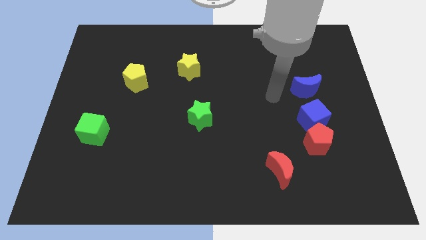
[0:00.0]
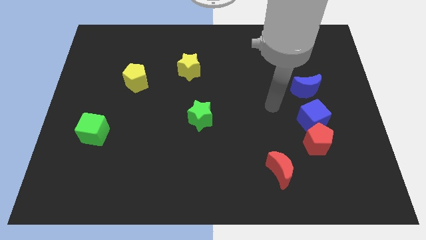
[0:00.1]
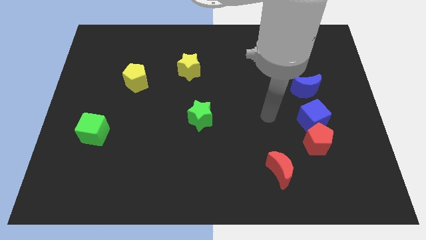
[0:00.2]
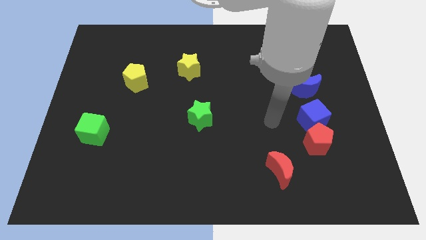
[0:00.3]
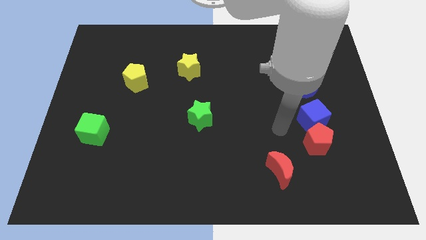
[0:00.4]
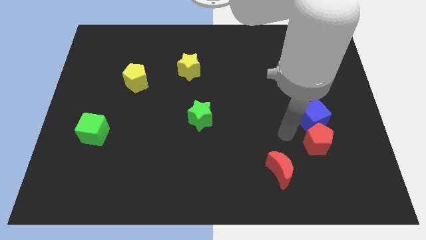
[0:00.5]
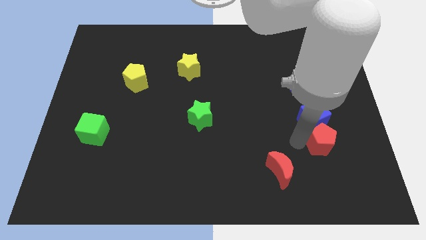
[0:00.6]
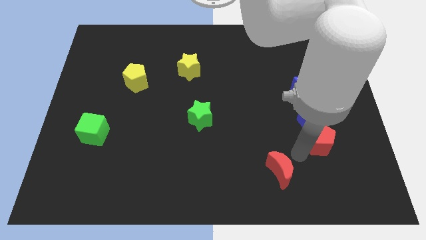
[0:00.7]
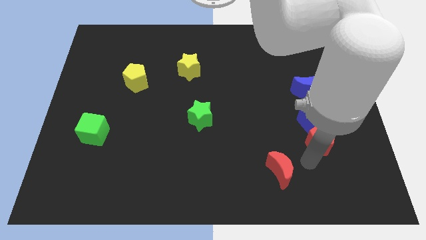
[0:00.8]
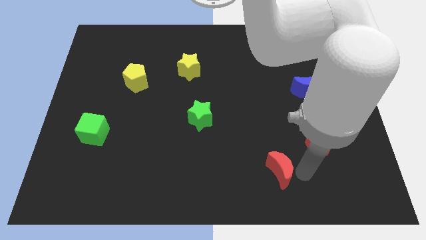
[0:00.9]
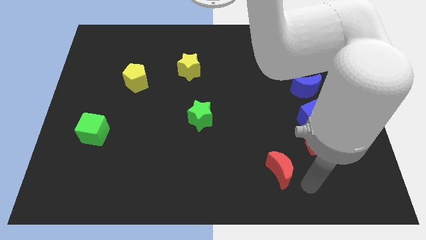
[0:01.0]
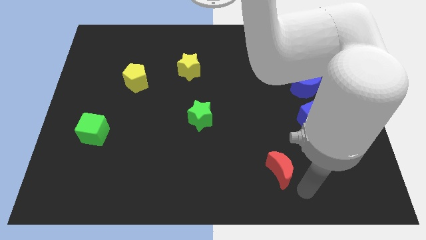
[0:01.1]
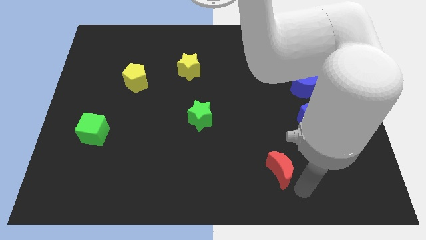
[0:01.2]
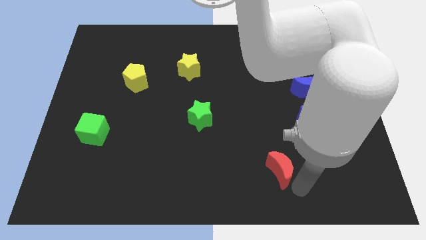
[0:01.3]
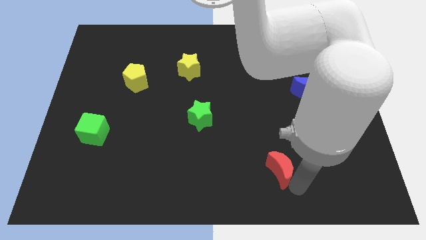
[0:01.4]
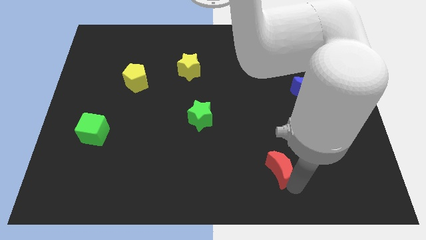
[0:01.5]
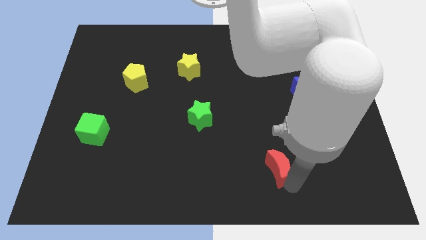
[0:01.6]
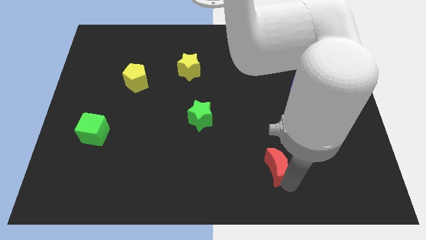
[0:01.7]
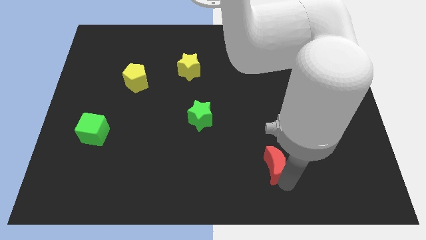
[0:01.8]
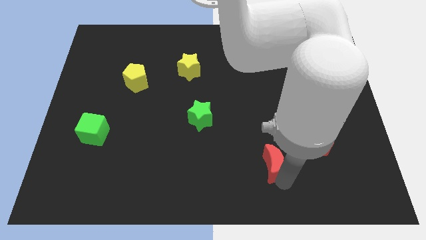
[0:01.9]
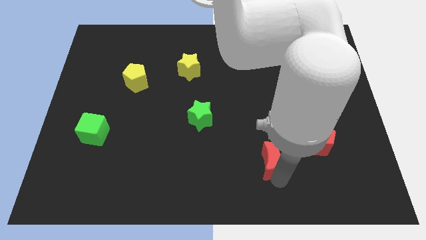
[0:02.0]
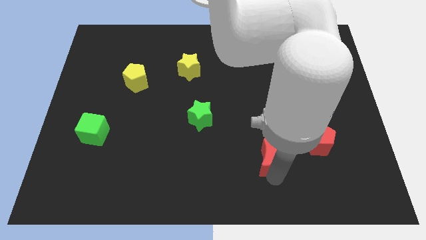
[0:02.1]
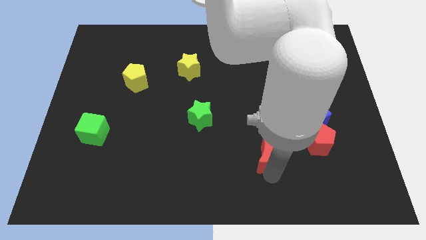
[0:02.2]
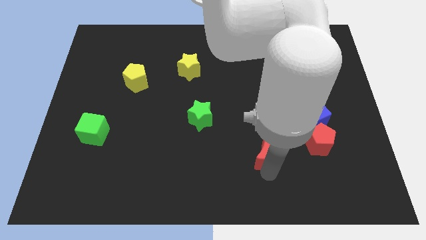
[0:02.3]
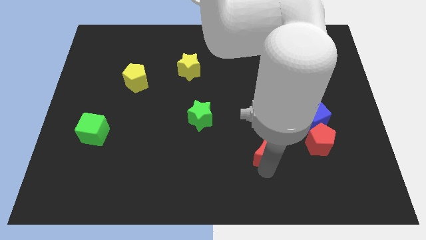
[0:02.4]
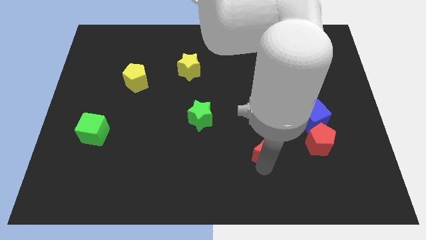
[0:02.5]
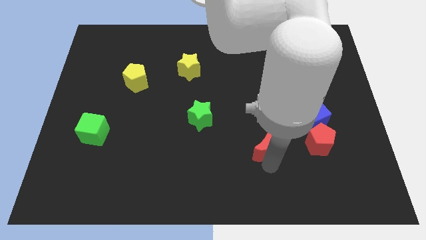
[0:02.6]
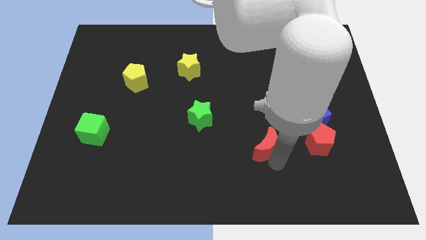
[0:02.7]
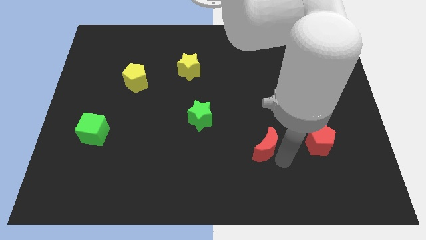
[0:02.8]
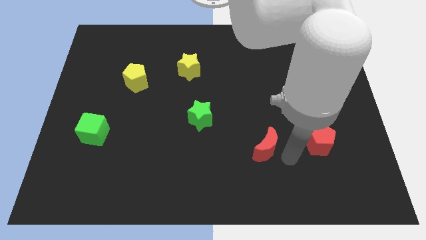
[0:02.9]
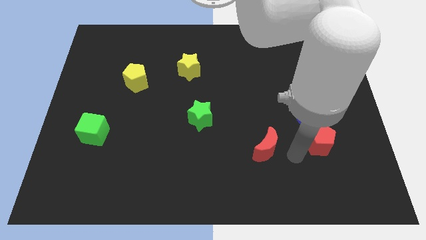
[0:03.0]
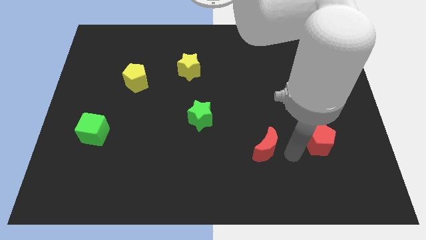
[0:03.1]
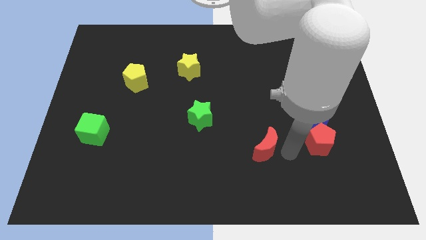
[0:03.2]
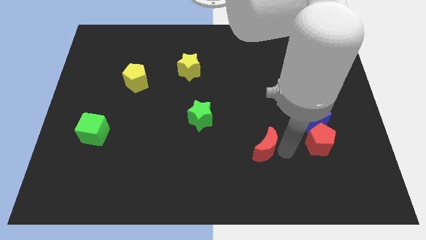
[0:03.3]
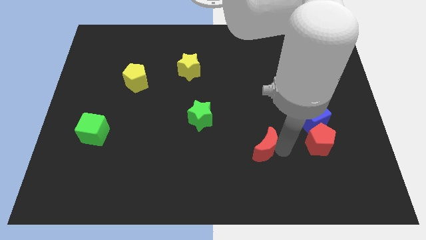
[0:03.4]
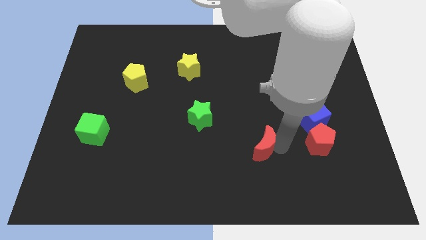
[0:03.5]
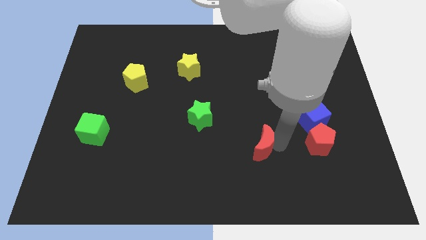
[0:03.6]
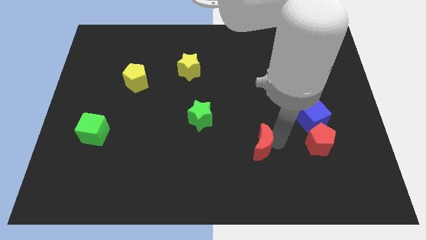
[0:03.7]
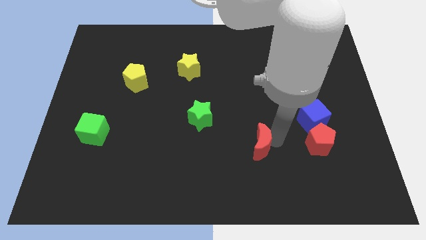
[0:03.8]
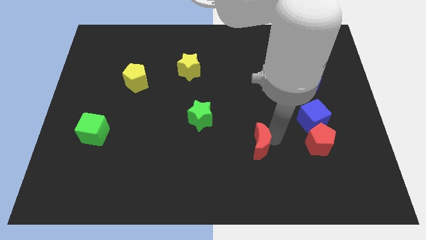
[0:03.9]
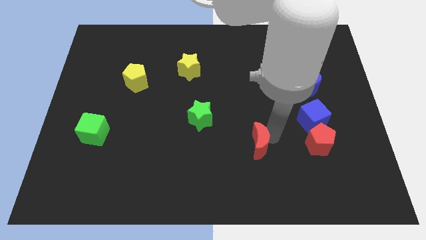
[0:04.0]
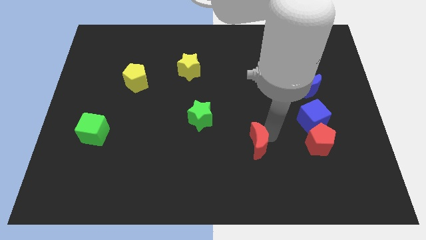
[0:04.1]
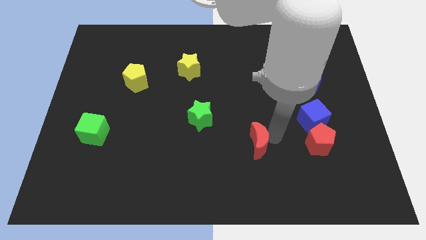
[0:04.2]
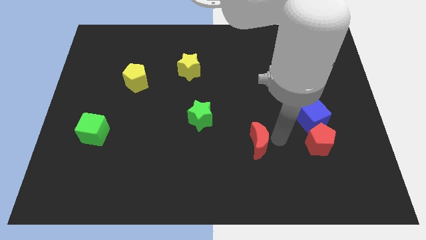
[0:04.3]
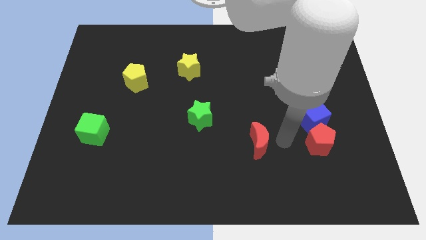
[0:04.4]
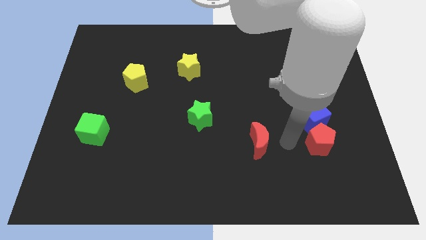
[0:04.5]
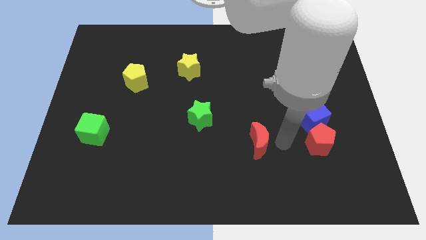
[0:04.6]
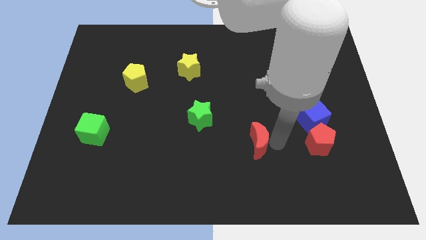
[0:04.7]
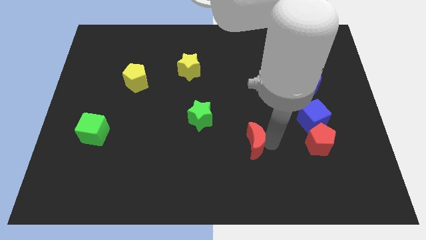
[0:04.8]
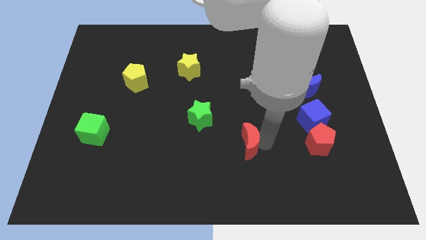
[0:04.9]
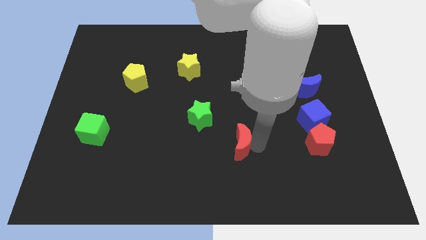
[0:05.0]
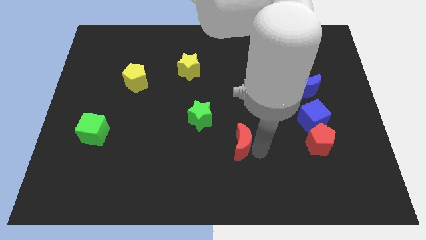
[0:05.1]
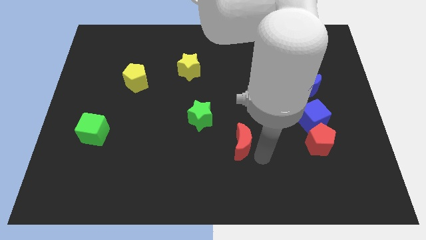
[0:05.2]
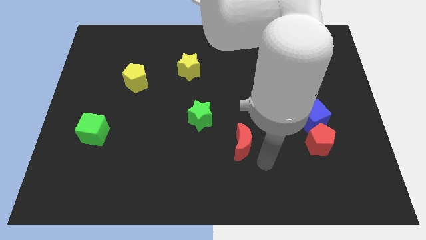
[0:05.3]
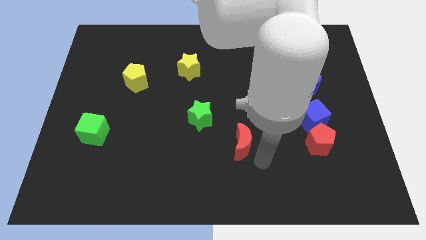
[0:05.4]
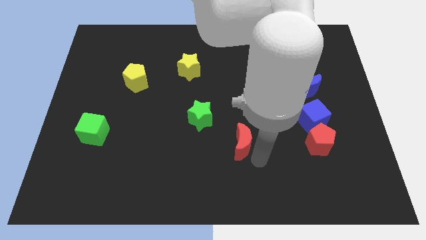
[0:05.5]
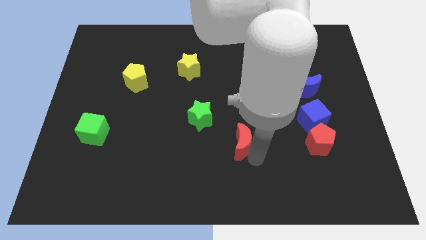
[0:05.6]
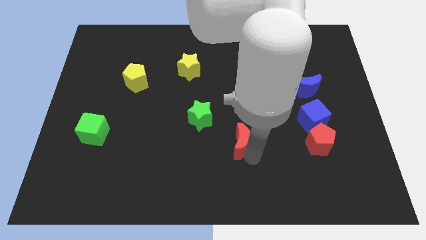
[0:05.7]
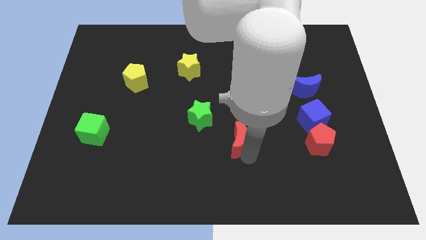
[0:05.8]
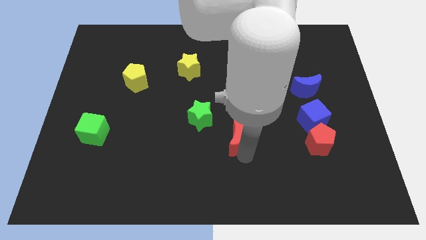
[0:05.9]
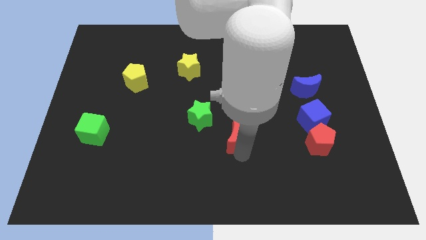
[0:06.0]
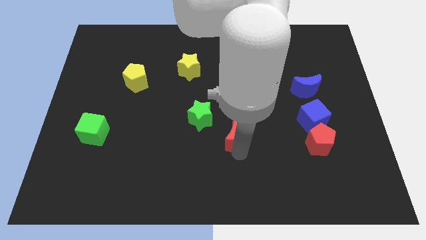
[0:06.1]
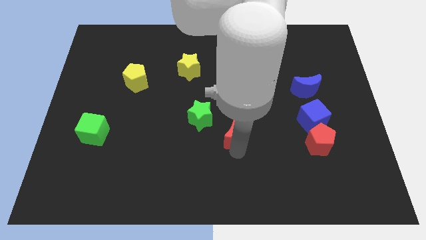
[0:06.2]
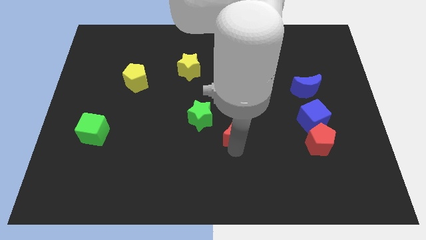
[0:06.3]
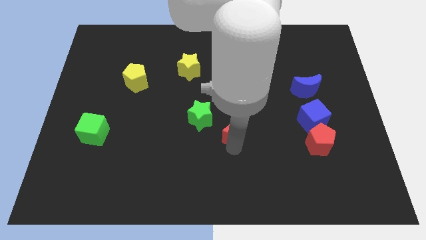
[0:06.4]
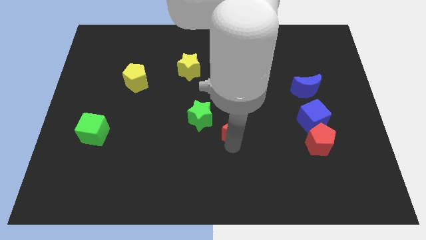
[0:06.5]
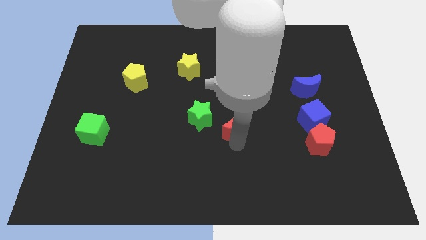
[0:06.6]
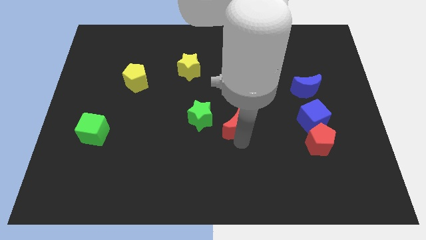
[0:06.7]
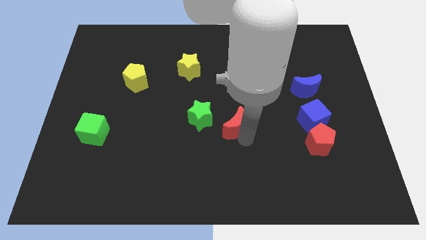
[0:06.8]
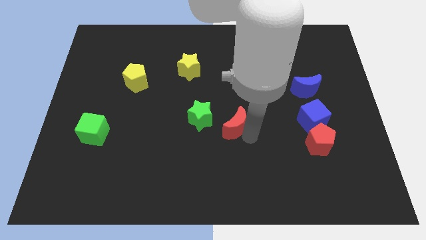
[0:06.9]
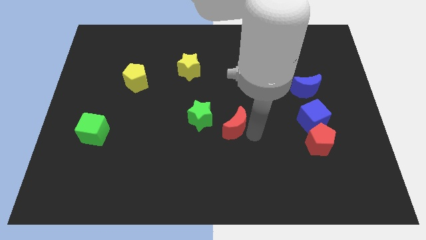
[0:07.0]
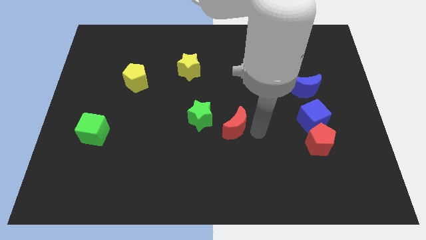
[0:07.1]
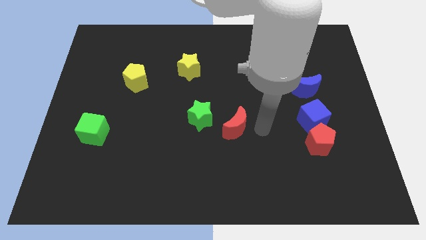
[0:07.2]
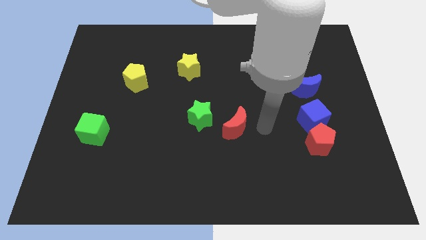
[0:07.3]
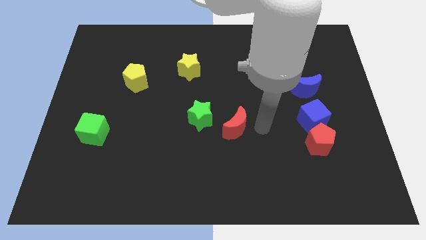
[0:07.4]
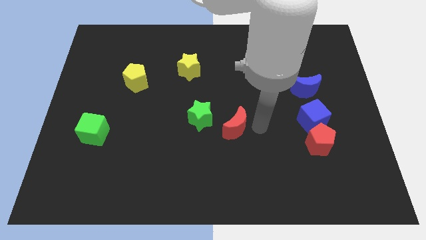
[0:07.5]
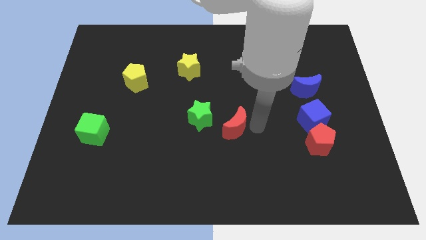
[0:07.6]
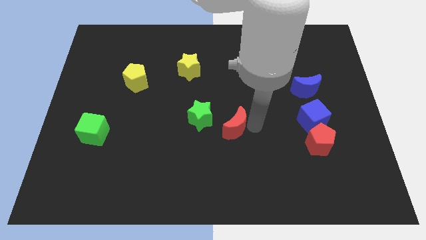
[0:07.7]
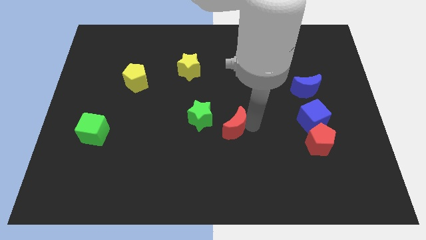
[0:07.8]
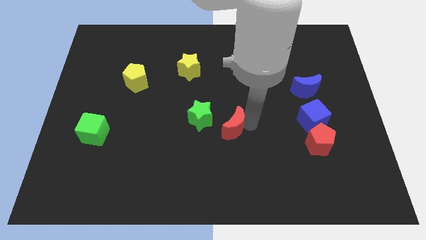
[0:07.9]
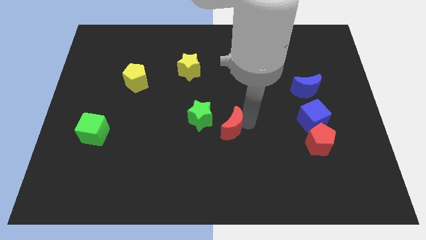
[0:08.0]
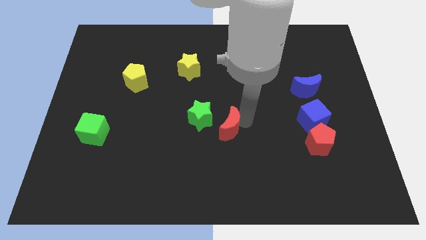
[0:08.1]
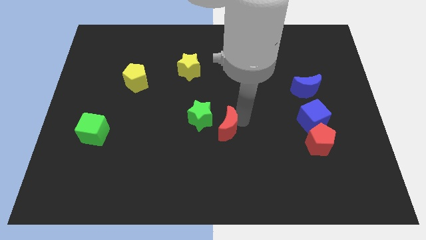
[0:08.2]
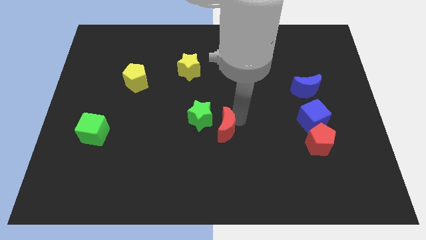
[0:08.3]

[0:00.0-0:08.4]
slide the red moon close to the green star
